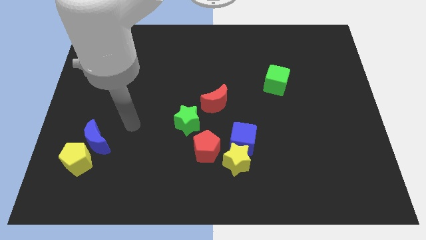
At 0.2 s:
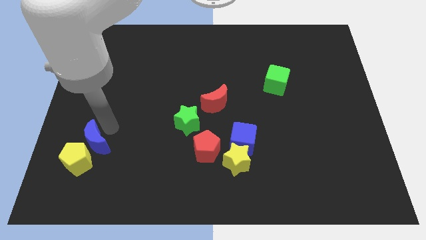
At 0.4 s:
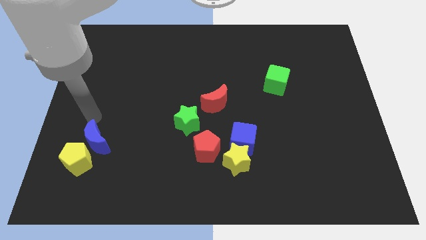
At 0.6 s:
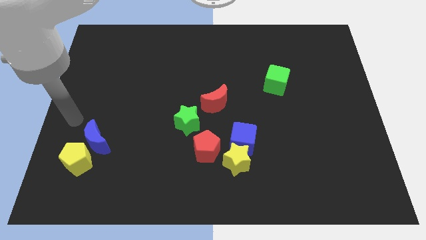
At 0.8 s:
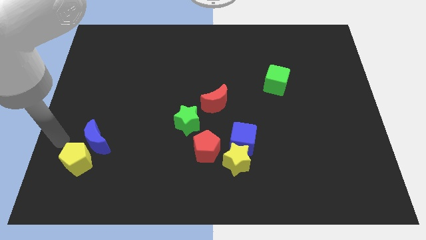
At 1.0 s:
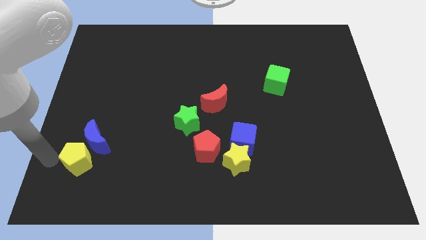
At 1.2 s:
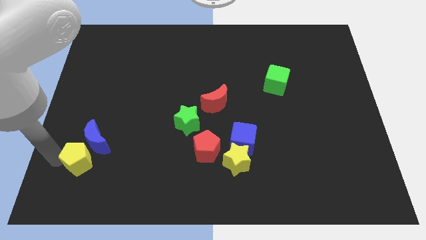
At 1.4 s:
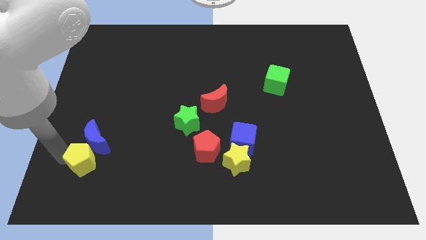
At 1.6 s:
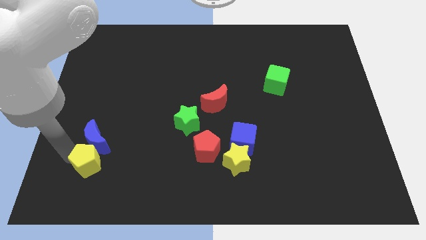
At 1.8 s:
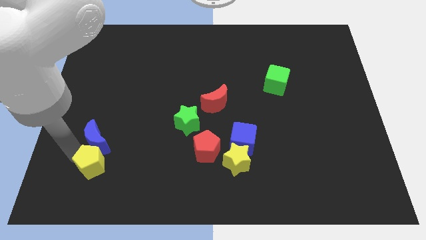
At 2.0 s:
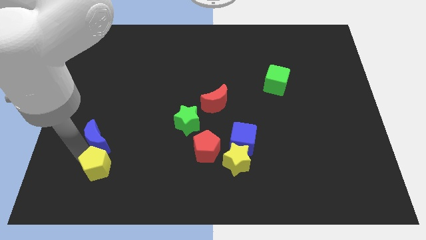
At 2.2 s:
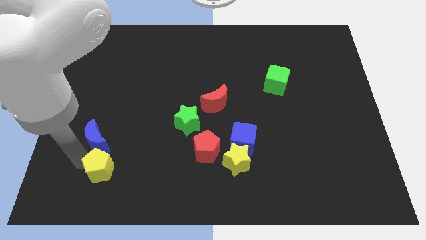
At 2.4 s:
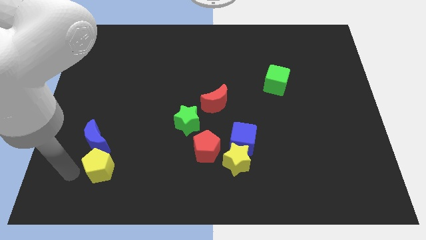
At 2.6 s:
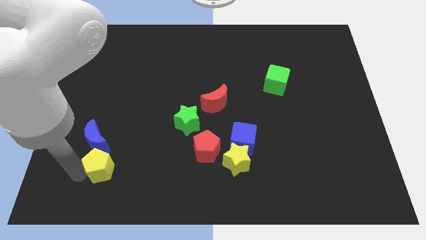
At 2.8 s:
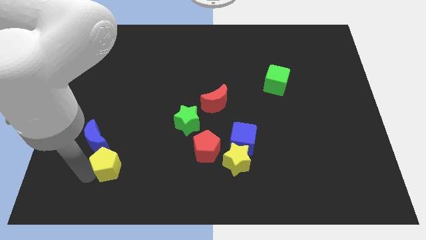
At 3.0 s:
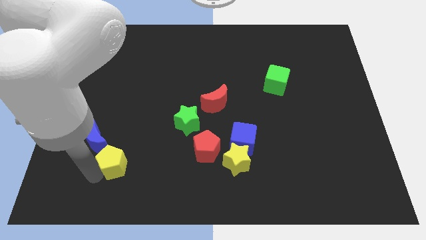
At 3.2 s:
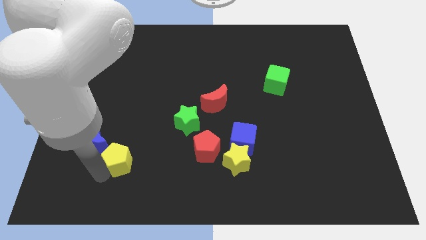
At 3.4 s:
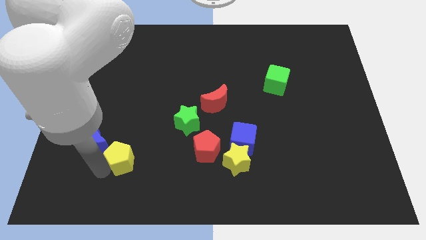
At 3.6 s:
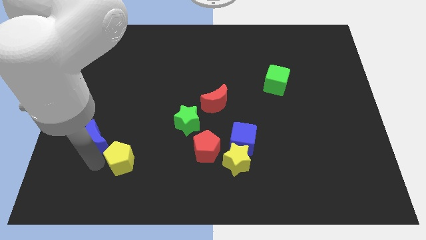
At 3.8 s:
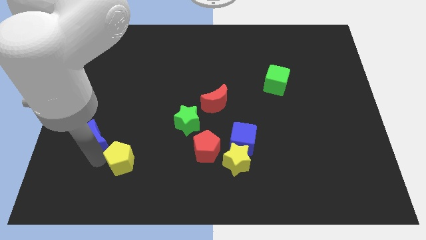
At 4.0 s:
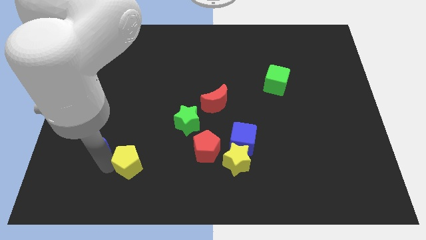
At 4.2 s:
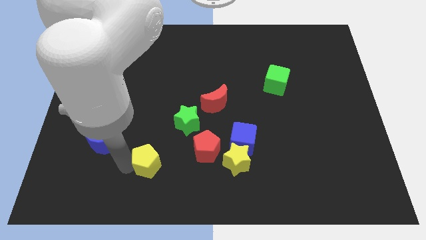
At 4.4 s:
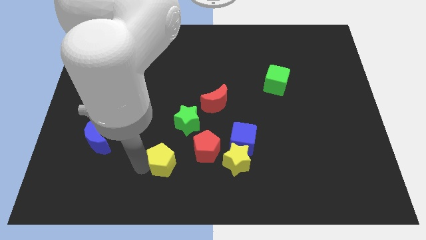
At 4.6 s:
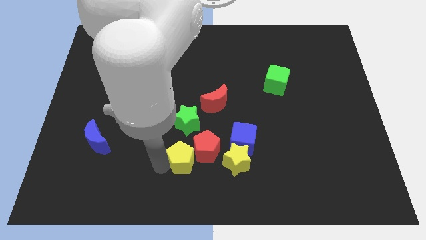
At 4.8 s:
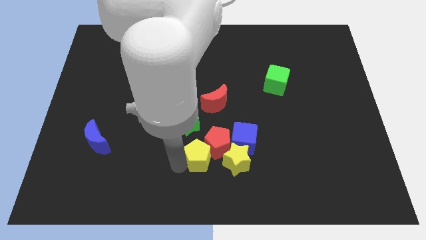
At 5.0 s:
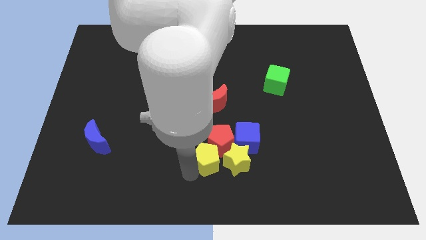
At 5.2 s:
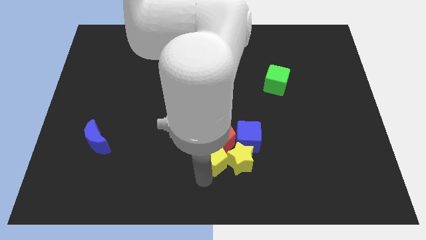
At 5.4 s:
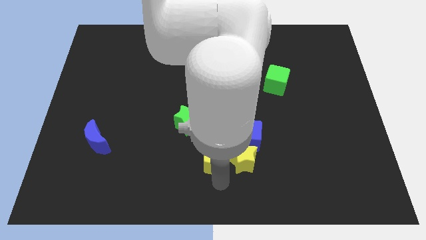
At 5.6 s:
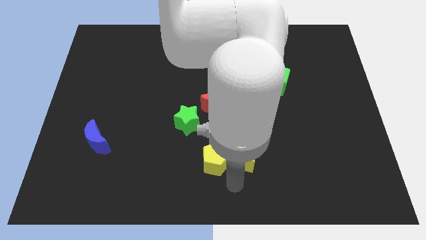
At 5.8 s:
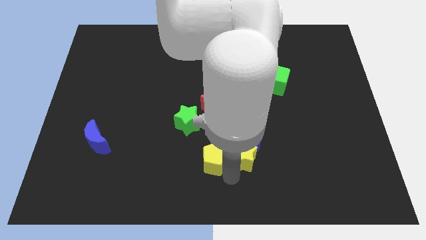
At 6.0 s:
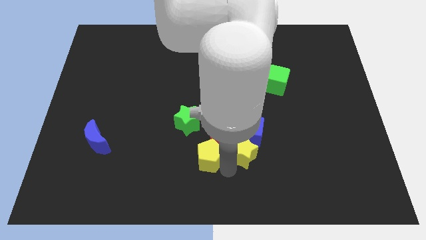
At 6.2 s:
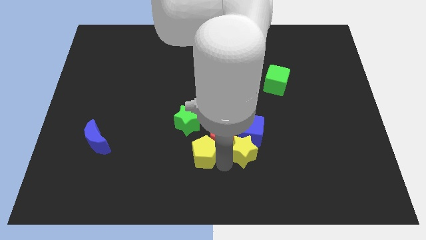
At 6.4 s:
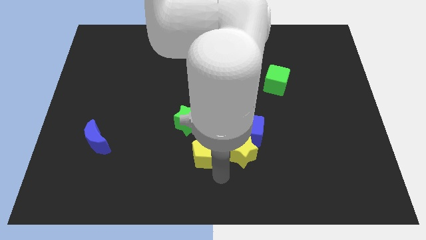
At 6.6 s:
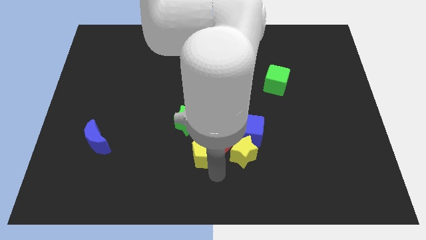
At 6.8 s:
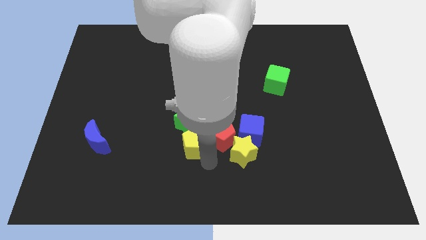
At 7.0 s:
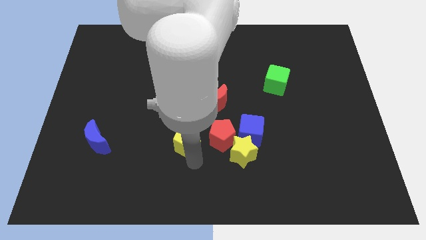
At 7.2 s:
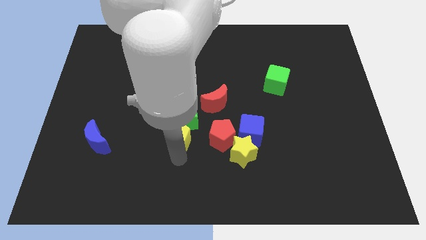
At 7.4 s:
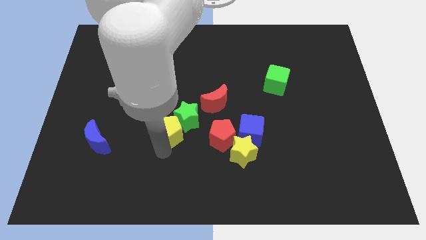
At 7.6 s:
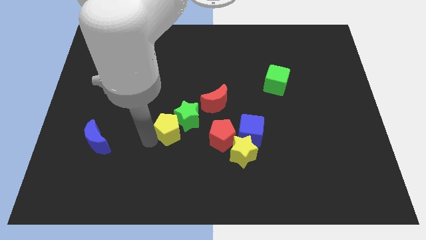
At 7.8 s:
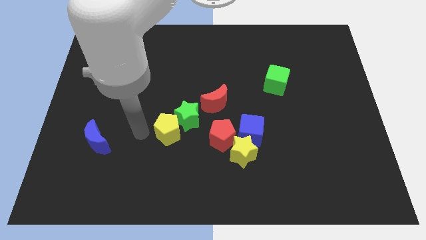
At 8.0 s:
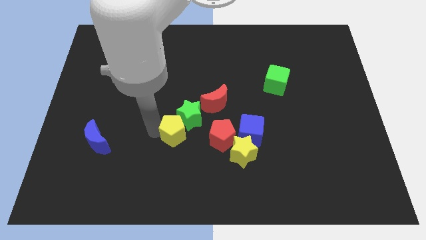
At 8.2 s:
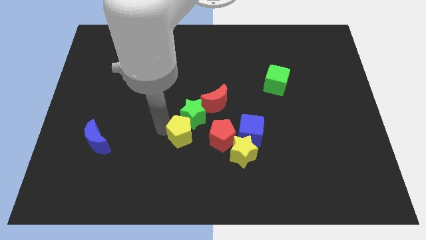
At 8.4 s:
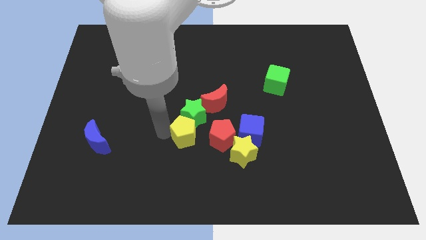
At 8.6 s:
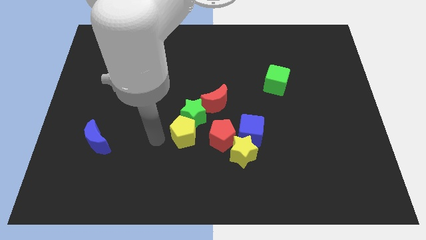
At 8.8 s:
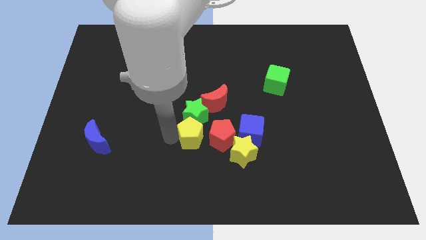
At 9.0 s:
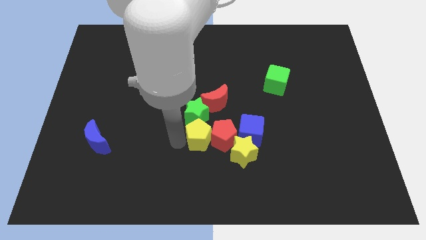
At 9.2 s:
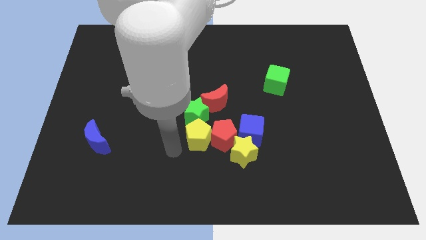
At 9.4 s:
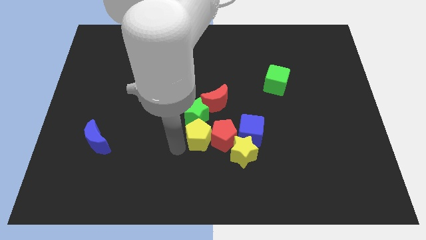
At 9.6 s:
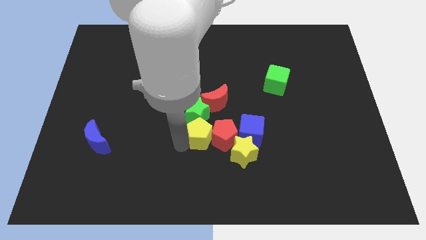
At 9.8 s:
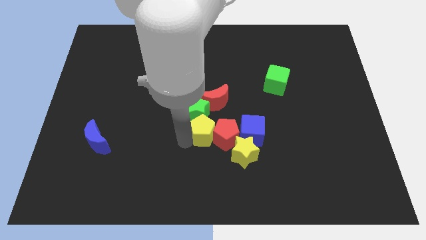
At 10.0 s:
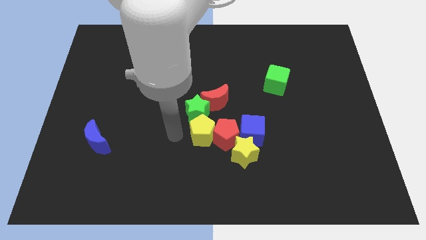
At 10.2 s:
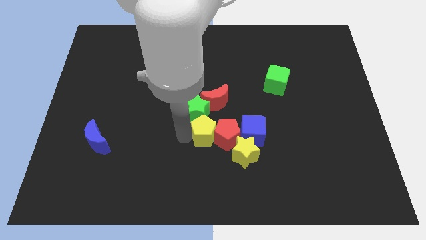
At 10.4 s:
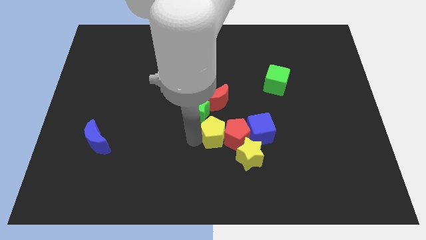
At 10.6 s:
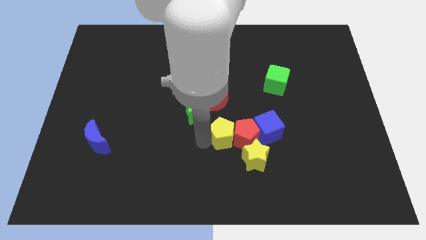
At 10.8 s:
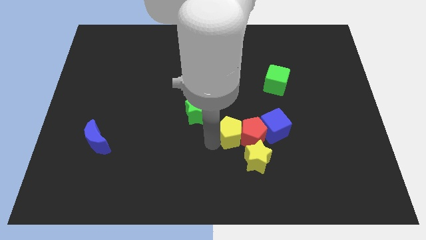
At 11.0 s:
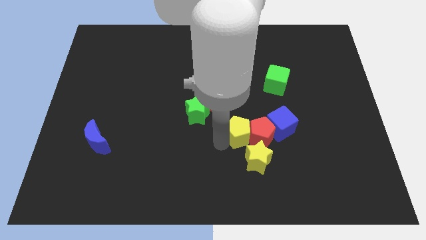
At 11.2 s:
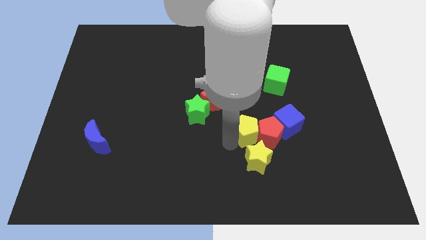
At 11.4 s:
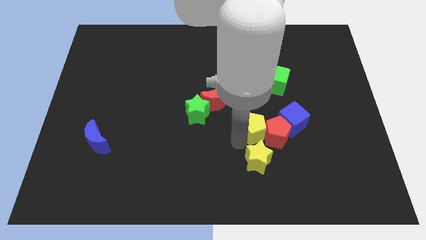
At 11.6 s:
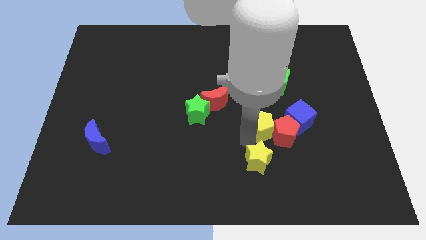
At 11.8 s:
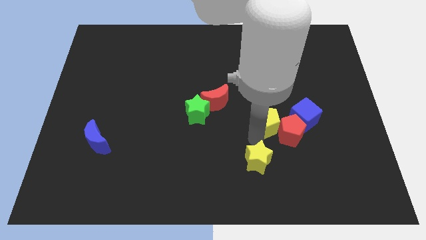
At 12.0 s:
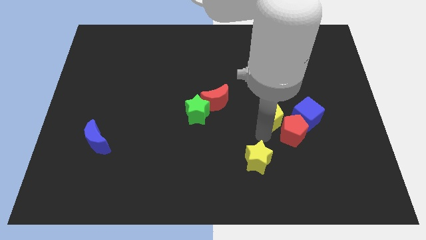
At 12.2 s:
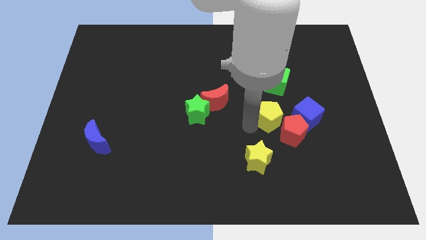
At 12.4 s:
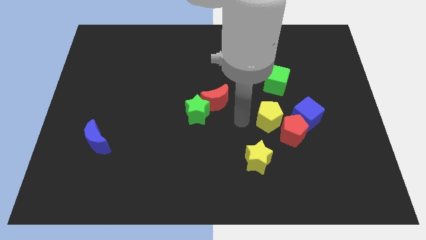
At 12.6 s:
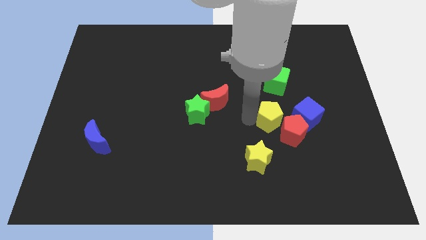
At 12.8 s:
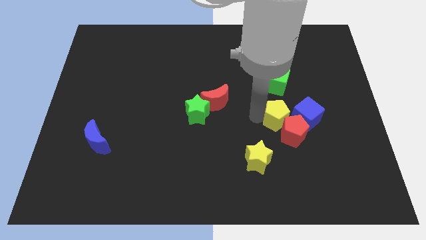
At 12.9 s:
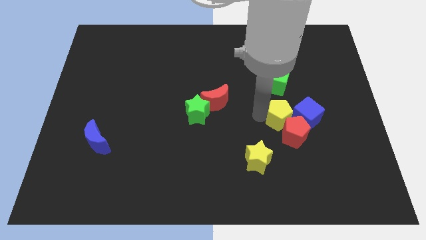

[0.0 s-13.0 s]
slide the yellow pentagon next to the blue cube
